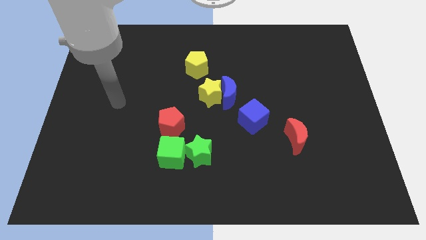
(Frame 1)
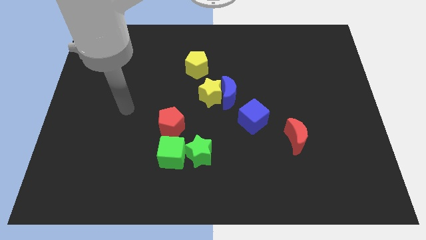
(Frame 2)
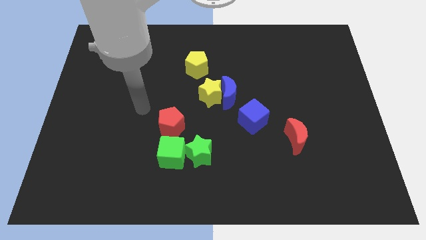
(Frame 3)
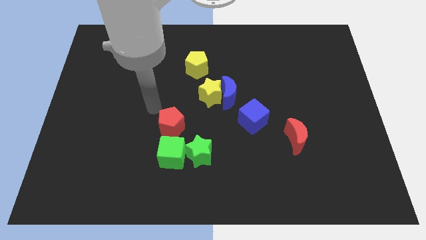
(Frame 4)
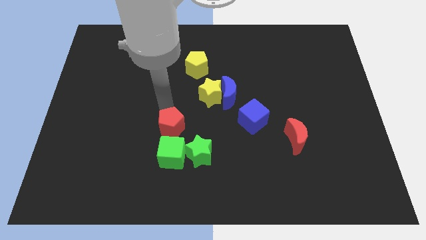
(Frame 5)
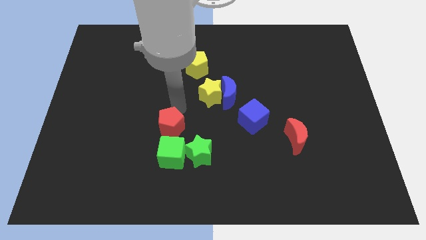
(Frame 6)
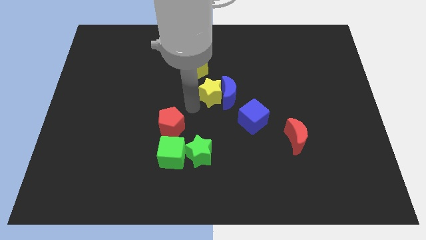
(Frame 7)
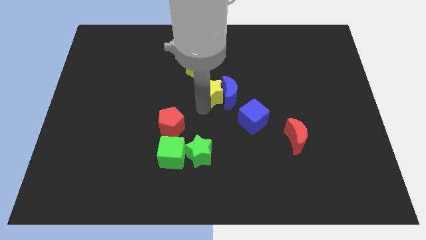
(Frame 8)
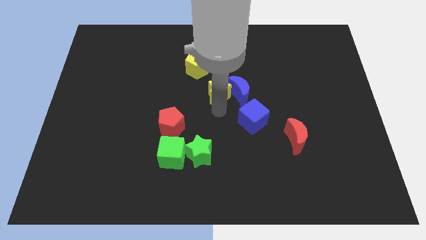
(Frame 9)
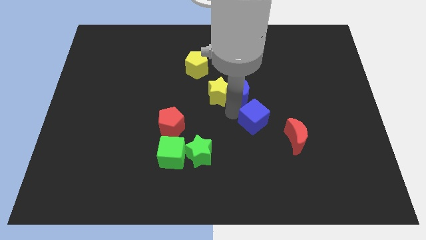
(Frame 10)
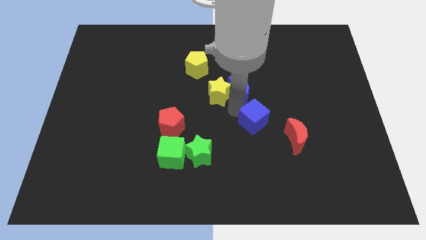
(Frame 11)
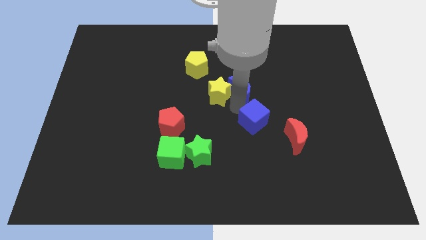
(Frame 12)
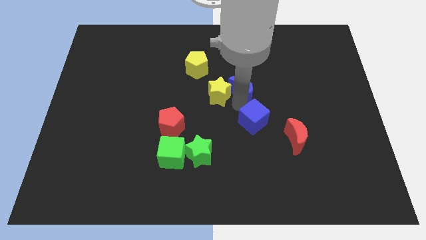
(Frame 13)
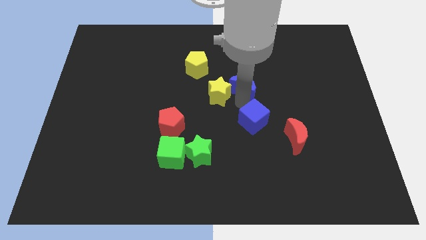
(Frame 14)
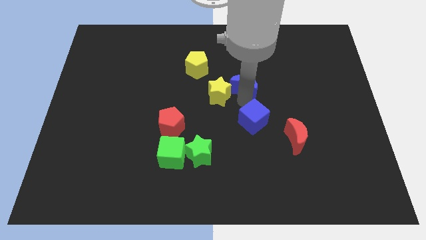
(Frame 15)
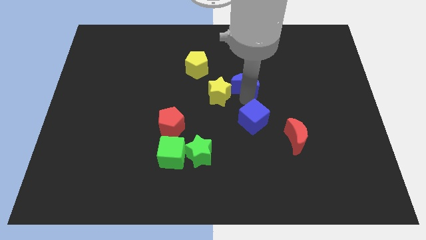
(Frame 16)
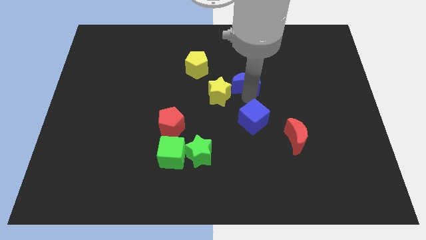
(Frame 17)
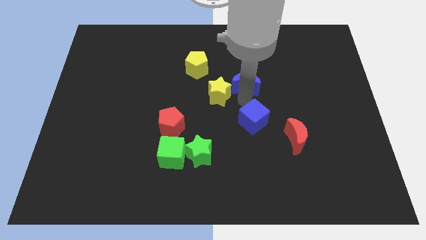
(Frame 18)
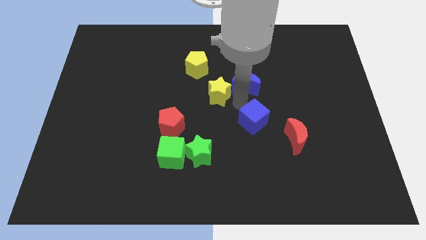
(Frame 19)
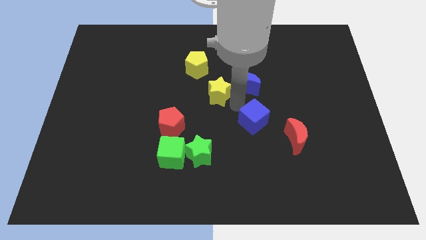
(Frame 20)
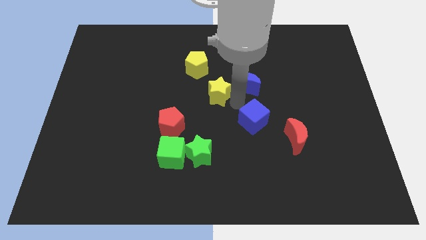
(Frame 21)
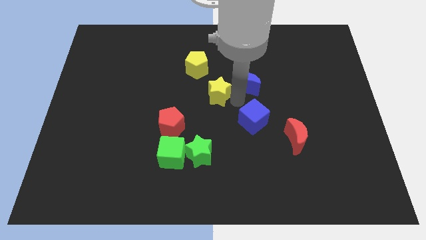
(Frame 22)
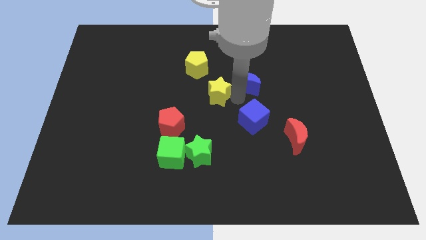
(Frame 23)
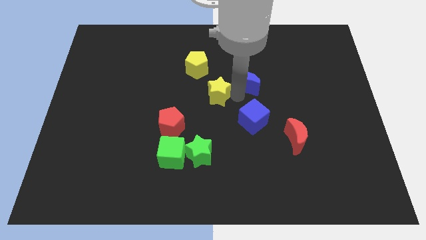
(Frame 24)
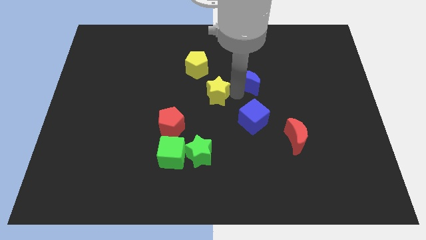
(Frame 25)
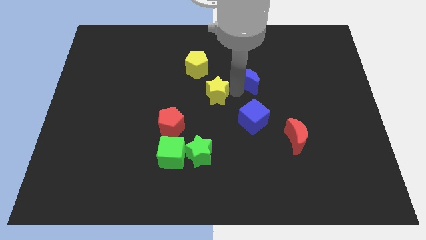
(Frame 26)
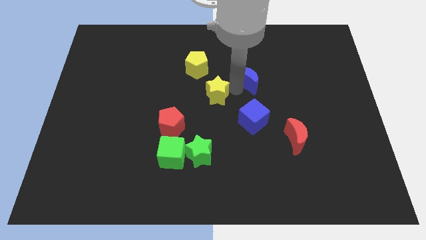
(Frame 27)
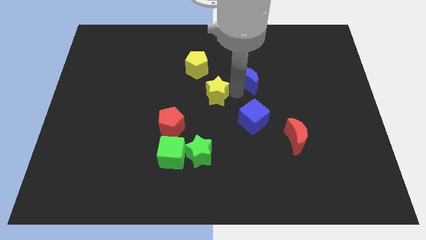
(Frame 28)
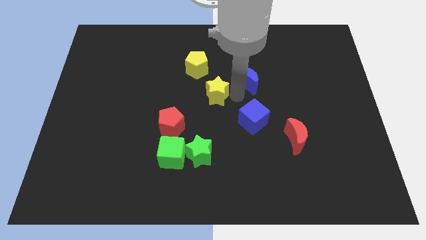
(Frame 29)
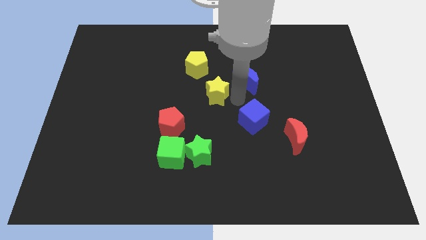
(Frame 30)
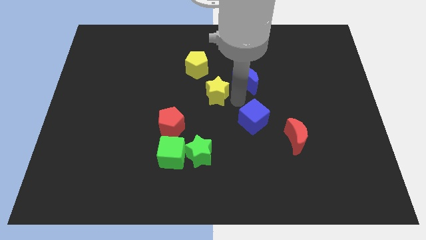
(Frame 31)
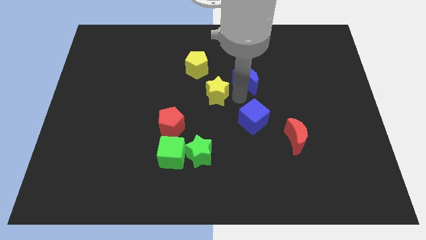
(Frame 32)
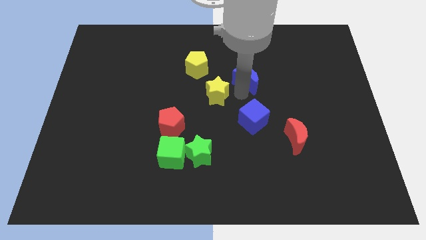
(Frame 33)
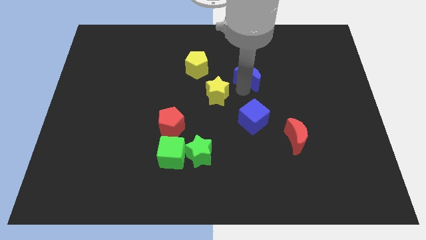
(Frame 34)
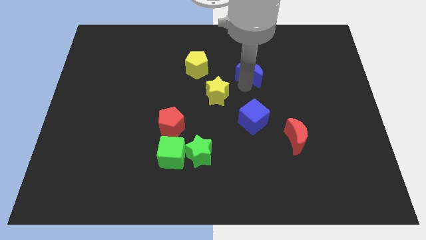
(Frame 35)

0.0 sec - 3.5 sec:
move the blue moon away from the yellow star and blue cube

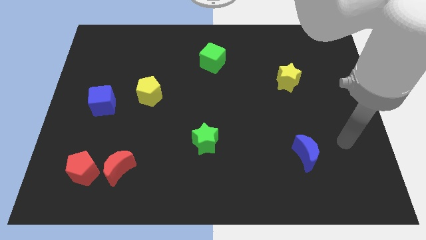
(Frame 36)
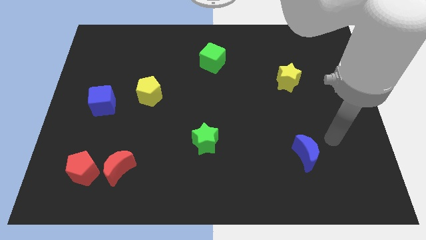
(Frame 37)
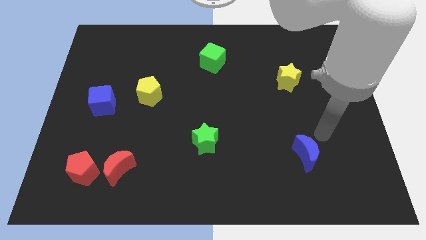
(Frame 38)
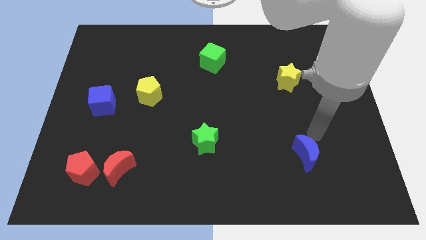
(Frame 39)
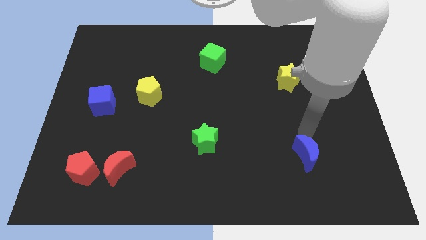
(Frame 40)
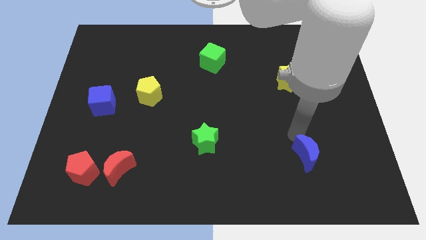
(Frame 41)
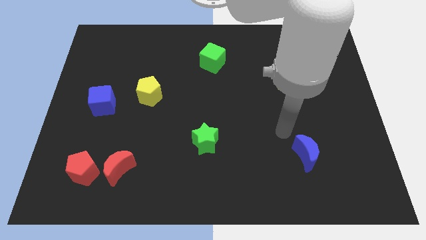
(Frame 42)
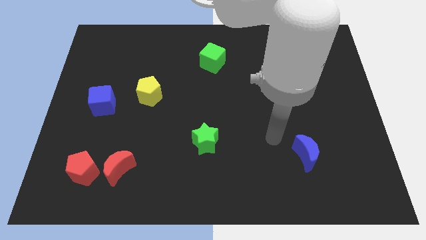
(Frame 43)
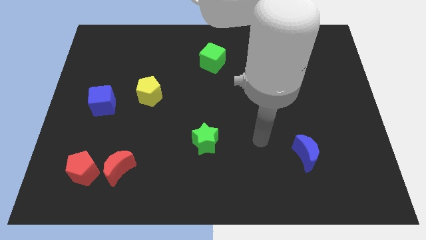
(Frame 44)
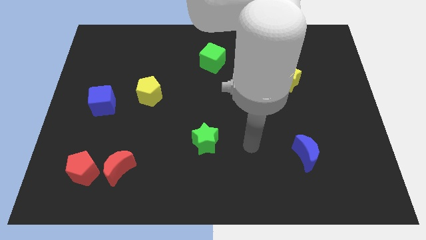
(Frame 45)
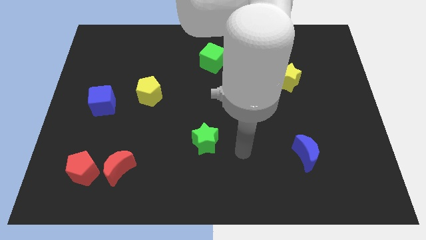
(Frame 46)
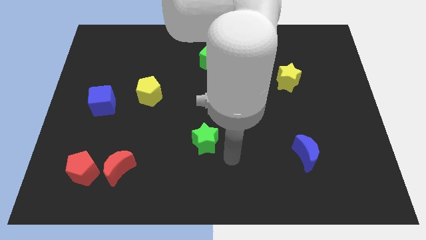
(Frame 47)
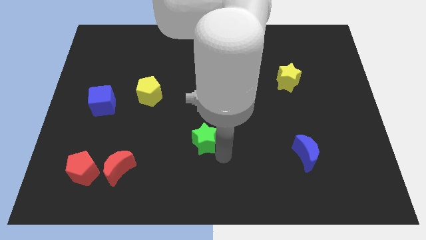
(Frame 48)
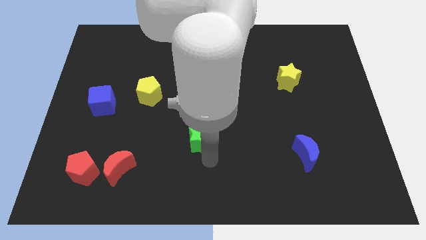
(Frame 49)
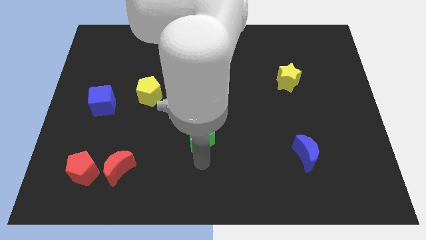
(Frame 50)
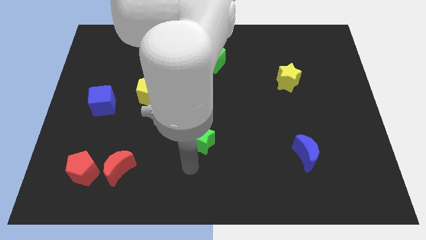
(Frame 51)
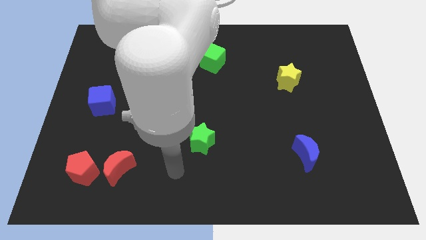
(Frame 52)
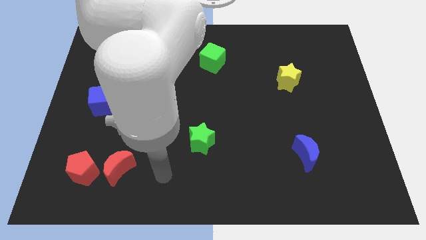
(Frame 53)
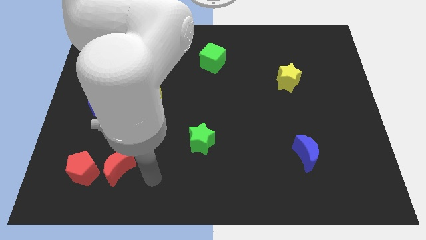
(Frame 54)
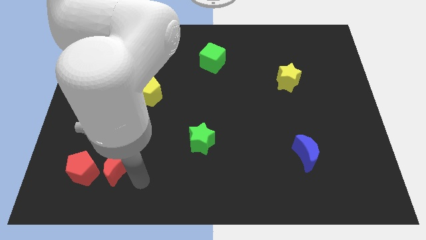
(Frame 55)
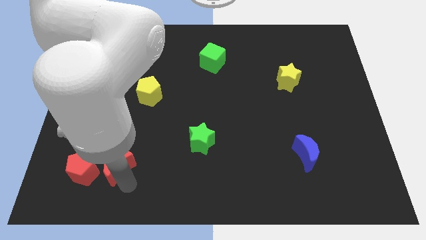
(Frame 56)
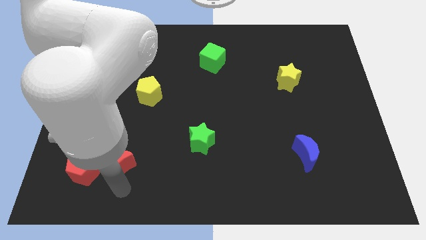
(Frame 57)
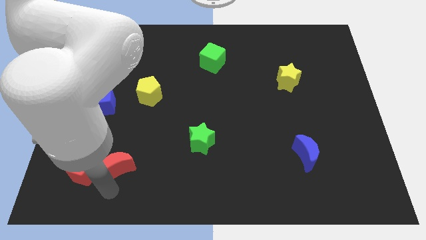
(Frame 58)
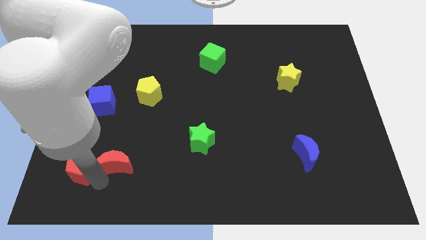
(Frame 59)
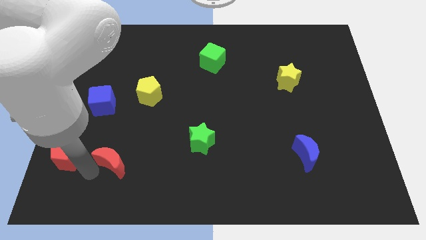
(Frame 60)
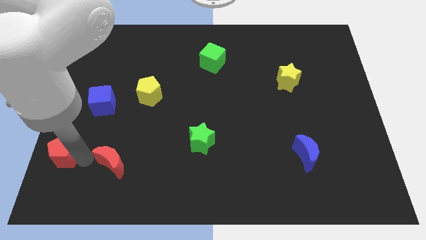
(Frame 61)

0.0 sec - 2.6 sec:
move the red moon away from the red pentagon

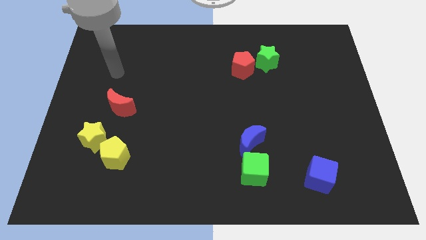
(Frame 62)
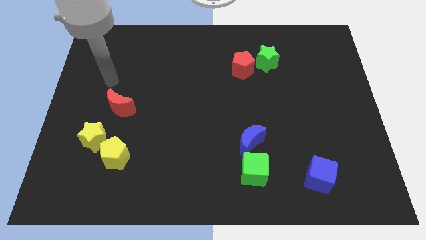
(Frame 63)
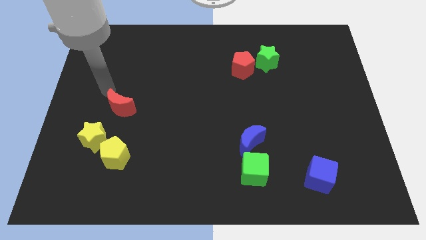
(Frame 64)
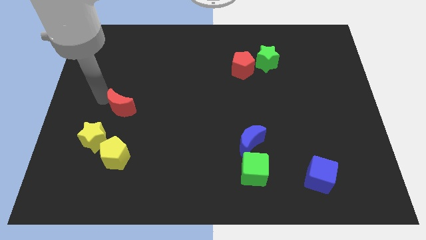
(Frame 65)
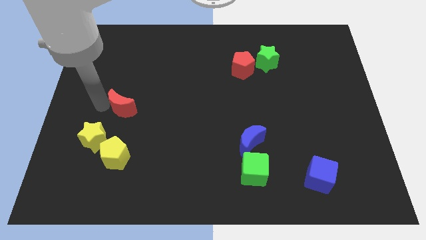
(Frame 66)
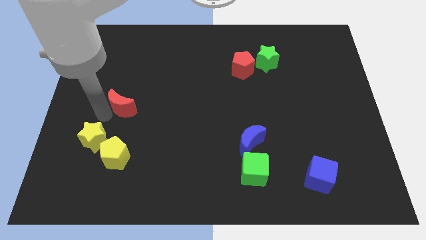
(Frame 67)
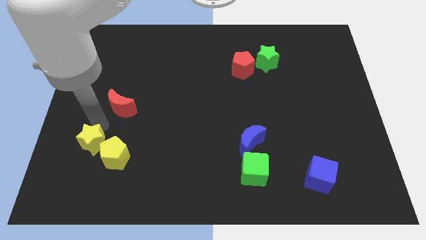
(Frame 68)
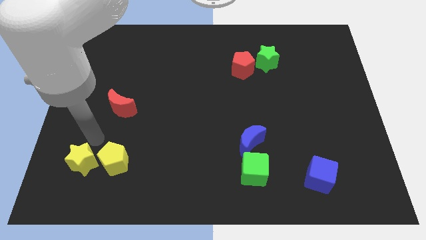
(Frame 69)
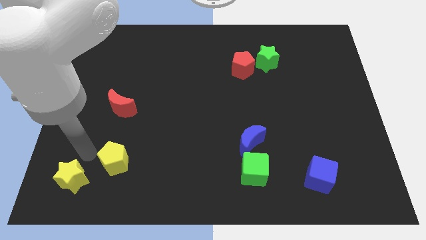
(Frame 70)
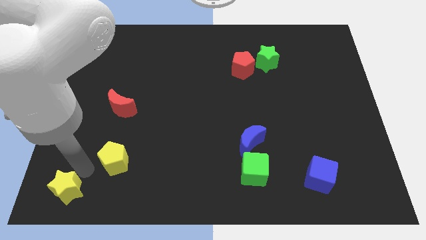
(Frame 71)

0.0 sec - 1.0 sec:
move the yellow pentagon away from the yellow star

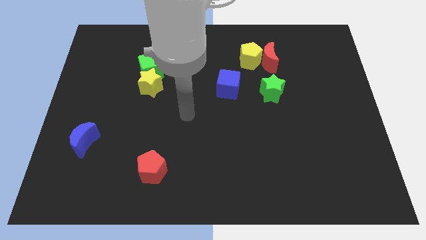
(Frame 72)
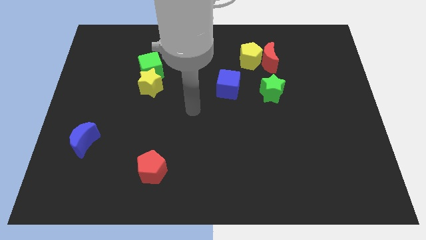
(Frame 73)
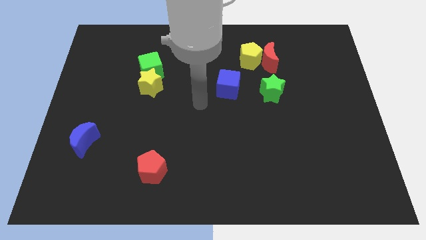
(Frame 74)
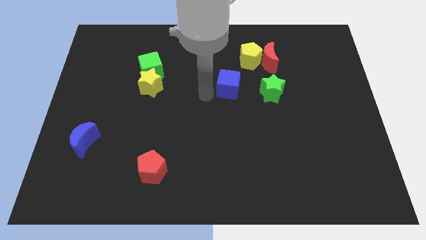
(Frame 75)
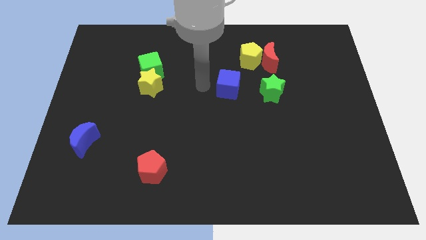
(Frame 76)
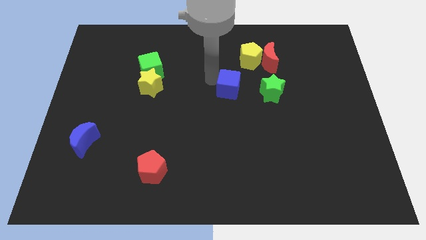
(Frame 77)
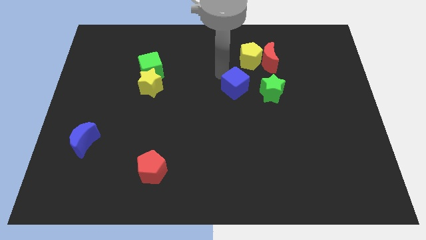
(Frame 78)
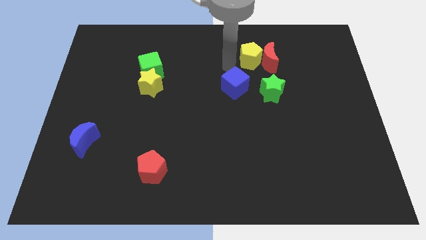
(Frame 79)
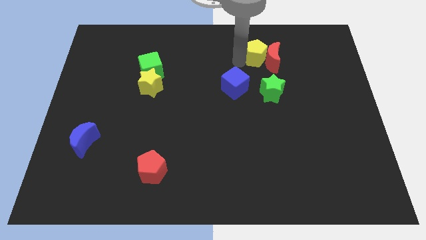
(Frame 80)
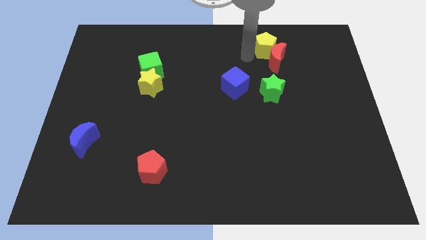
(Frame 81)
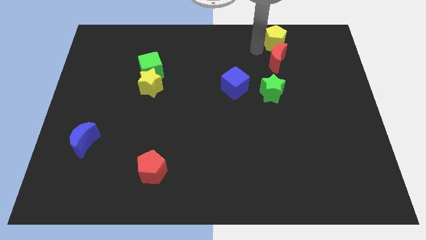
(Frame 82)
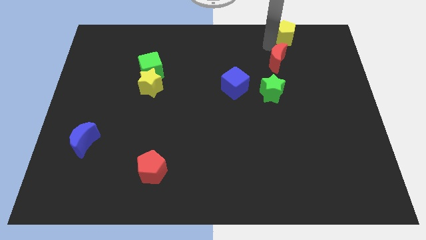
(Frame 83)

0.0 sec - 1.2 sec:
separate the red moon from the yellow pentagon

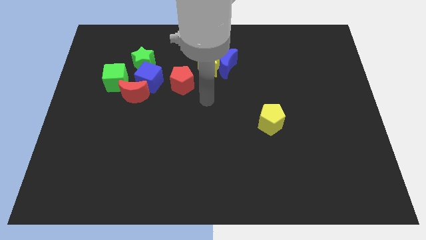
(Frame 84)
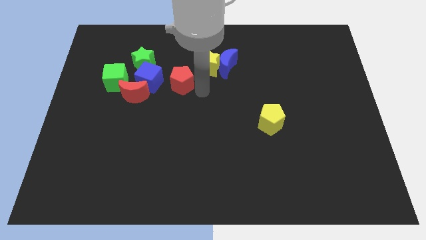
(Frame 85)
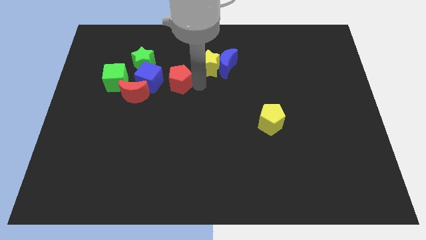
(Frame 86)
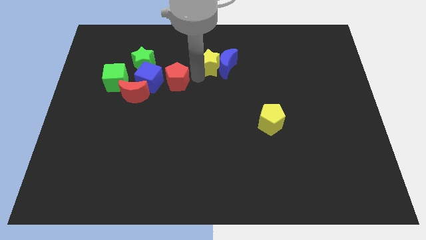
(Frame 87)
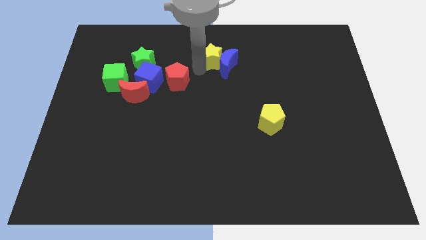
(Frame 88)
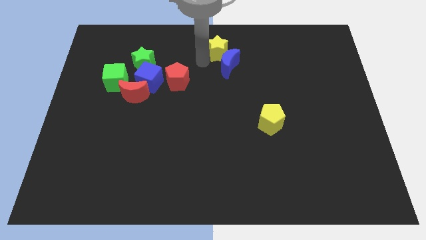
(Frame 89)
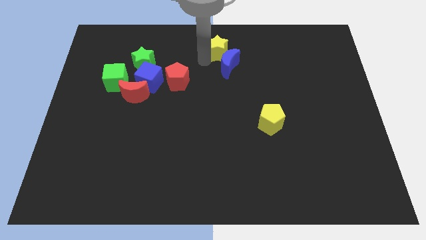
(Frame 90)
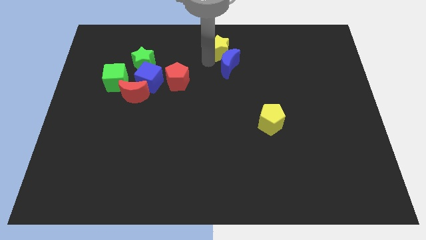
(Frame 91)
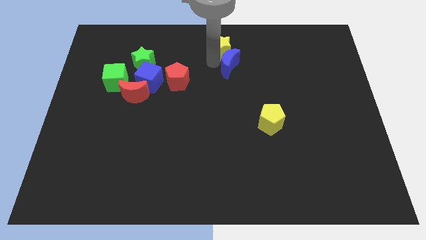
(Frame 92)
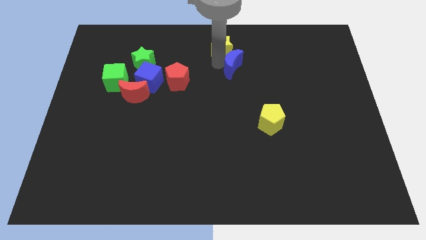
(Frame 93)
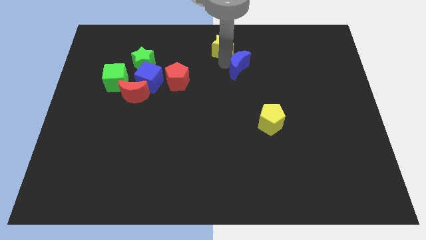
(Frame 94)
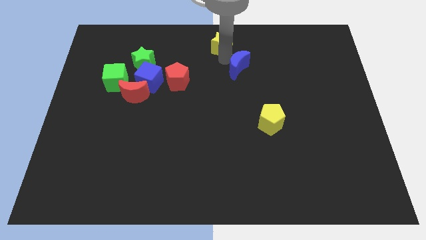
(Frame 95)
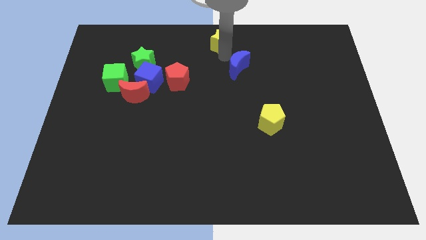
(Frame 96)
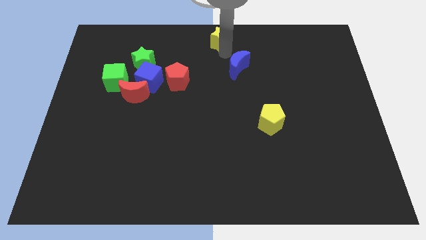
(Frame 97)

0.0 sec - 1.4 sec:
separate the blue moon from the yellow star
